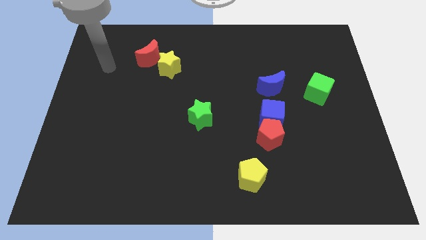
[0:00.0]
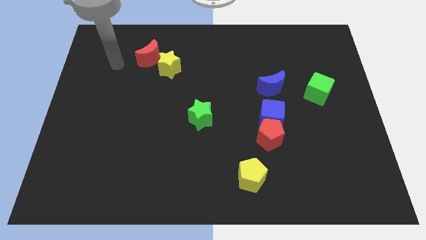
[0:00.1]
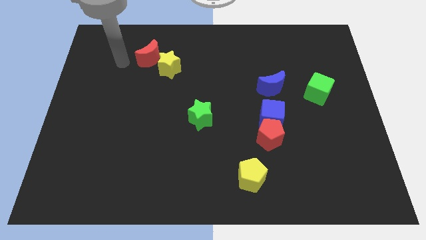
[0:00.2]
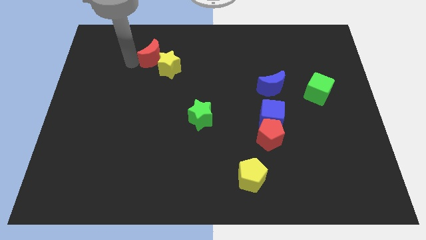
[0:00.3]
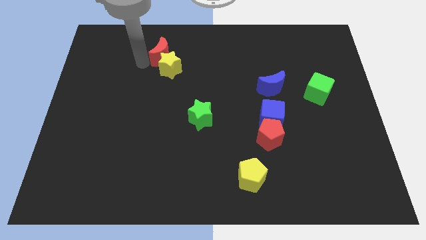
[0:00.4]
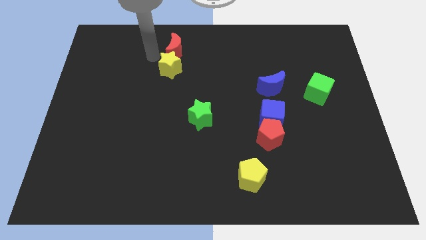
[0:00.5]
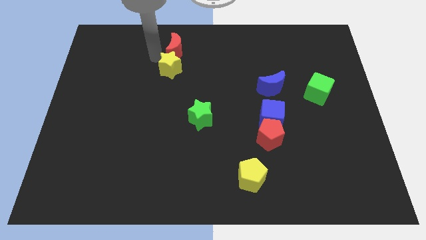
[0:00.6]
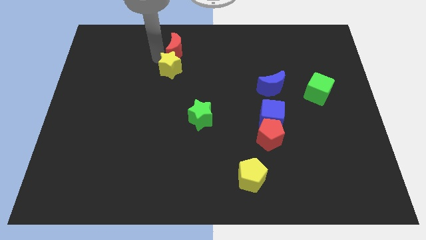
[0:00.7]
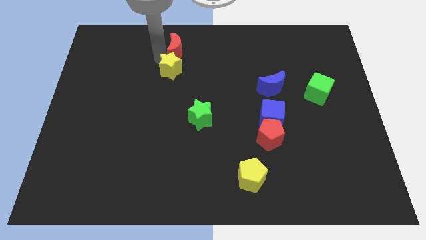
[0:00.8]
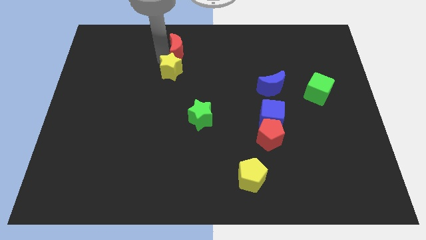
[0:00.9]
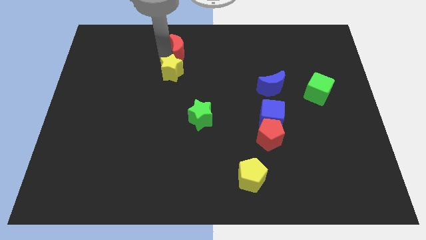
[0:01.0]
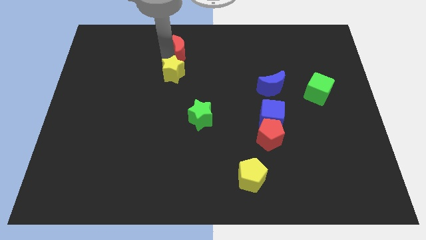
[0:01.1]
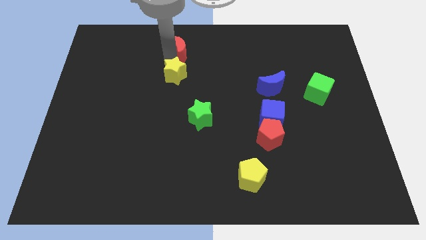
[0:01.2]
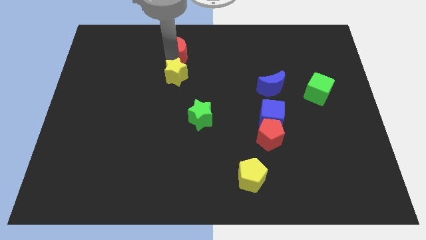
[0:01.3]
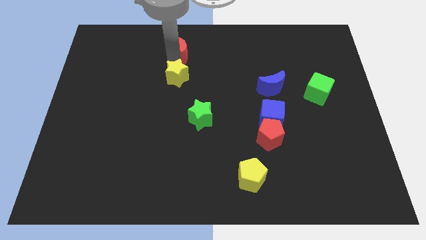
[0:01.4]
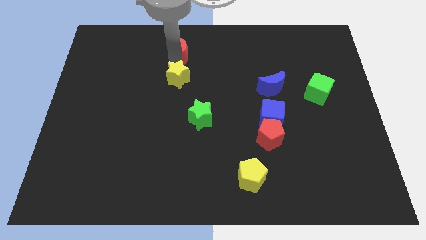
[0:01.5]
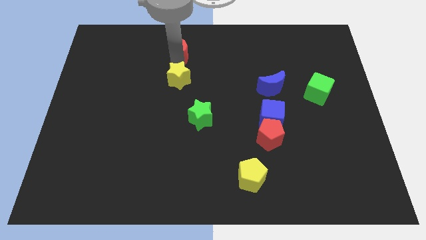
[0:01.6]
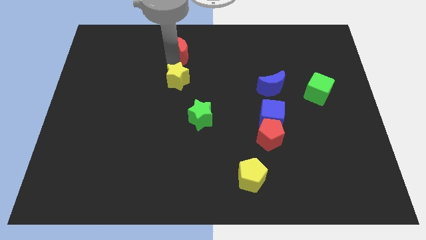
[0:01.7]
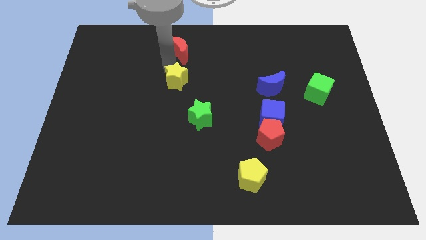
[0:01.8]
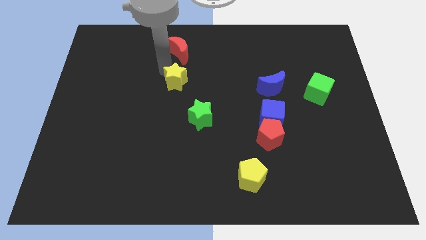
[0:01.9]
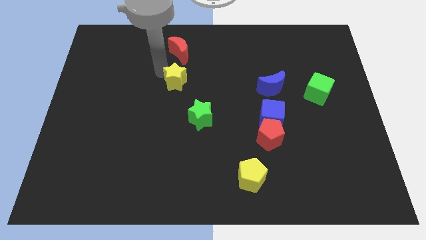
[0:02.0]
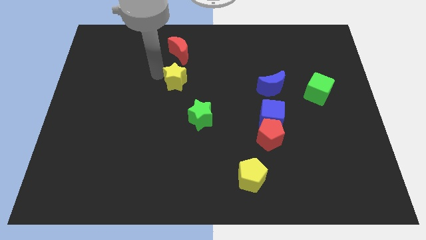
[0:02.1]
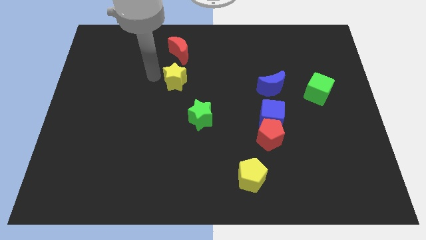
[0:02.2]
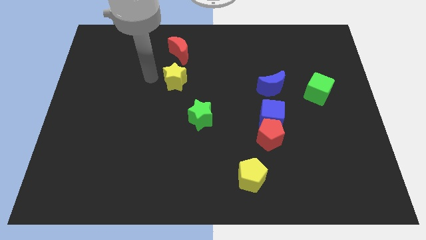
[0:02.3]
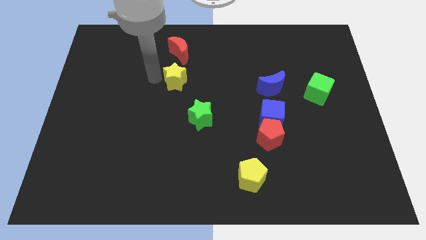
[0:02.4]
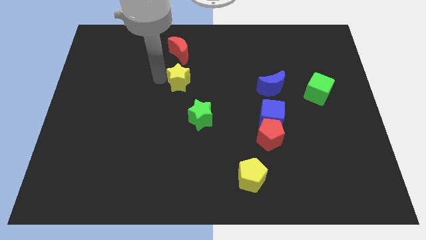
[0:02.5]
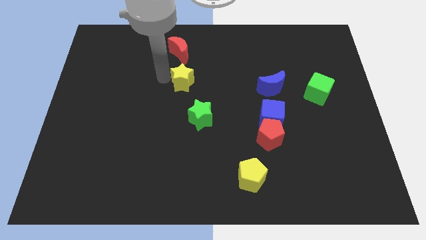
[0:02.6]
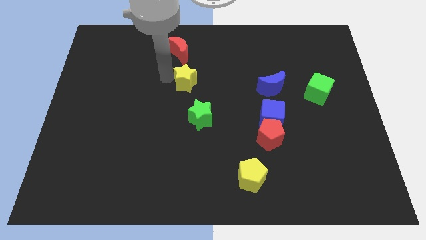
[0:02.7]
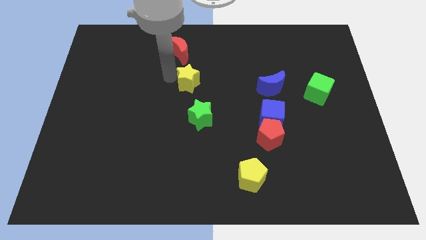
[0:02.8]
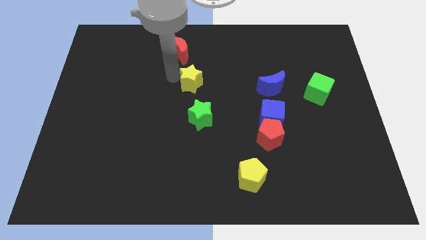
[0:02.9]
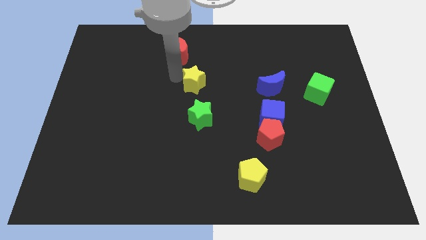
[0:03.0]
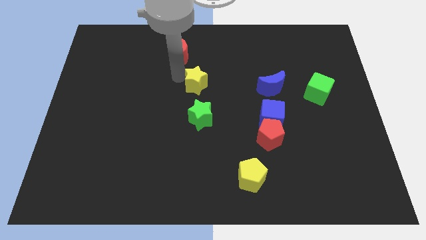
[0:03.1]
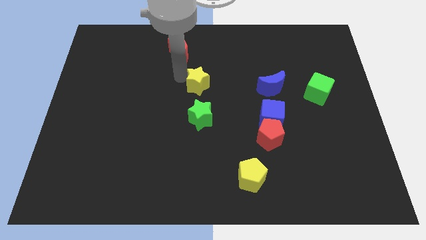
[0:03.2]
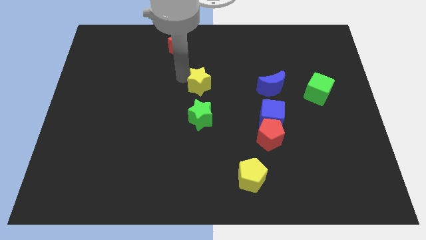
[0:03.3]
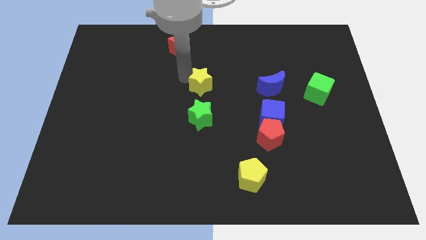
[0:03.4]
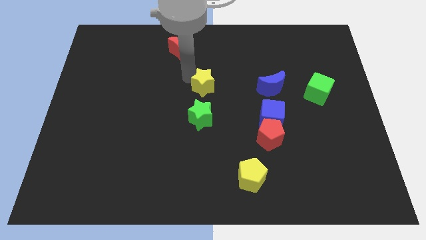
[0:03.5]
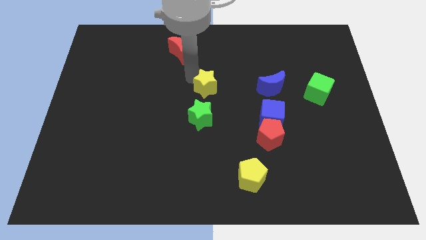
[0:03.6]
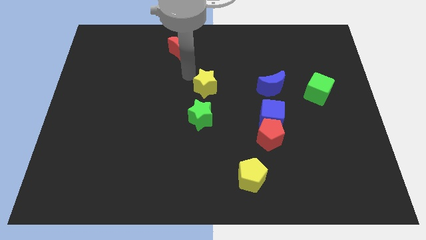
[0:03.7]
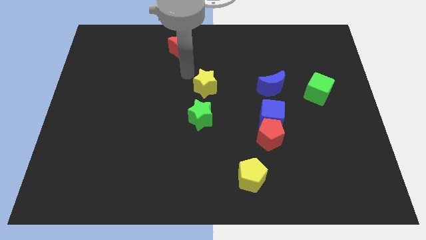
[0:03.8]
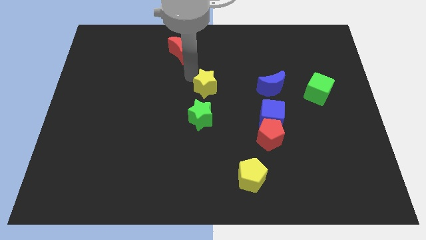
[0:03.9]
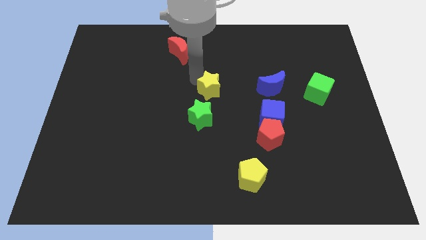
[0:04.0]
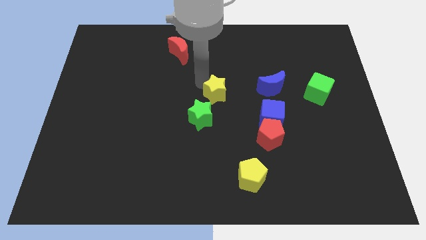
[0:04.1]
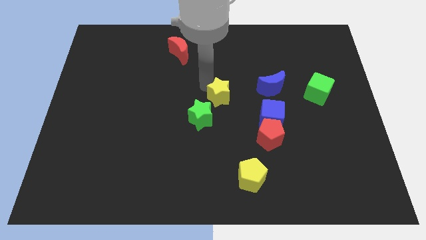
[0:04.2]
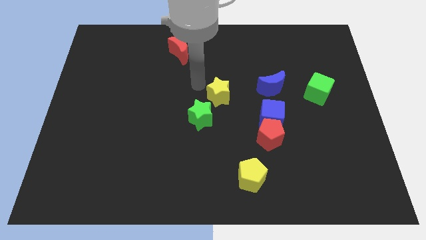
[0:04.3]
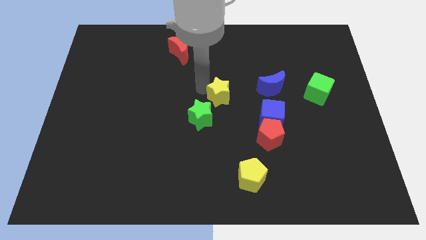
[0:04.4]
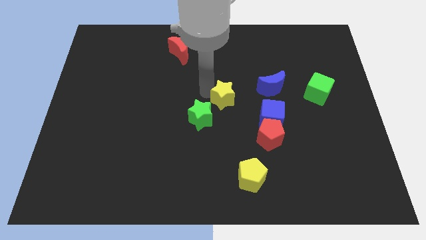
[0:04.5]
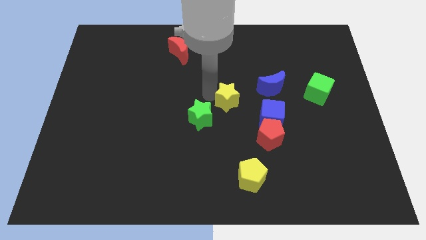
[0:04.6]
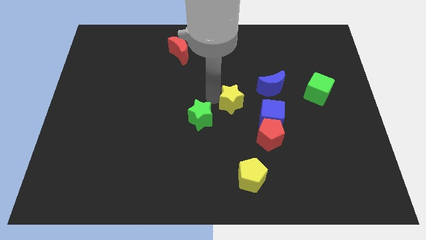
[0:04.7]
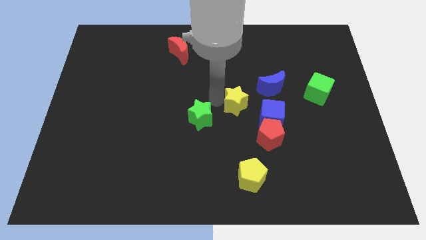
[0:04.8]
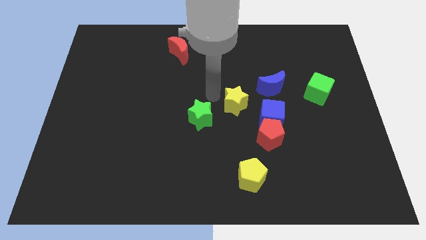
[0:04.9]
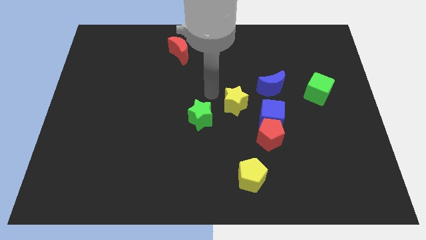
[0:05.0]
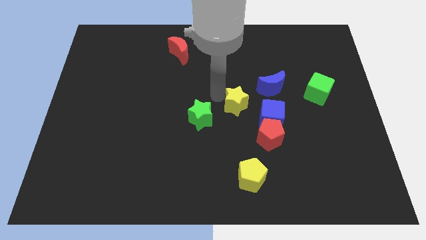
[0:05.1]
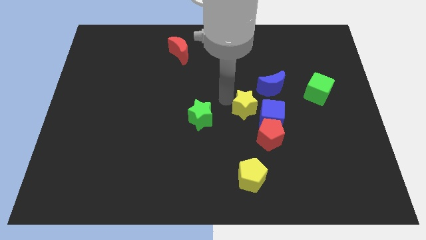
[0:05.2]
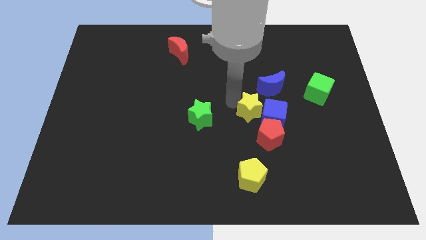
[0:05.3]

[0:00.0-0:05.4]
put the yellow star to the blue cube

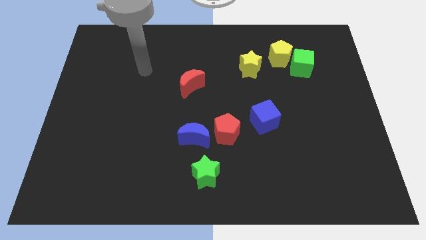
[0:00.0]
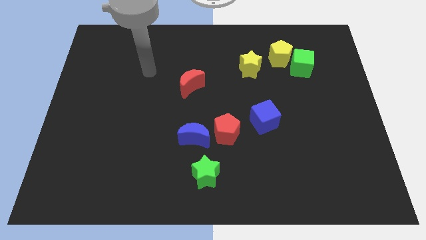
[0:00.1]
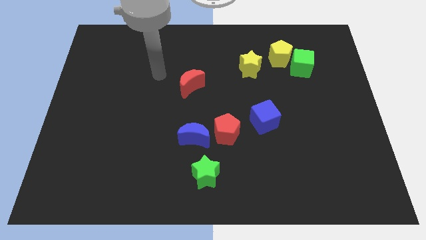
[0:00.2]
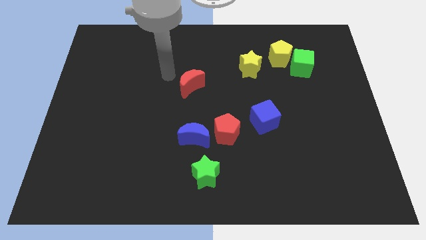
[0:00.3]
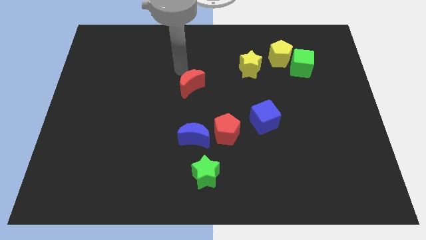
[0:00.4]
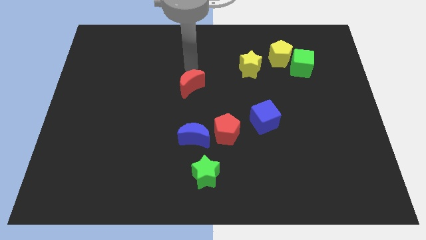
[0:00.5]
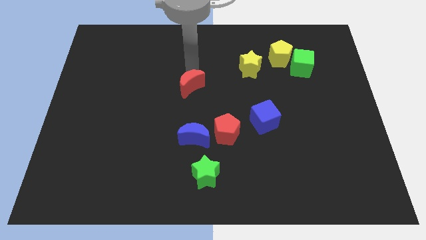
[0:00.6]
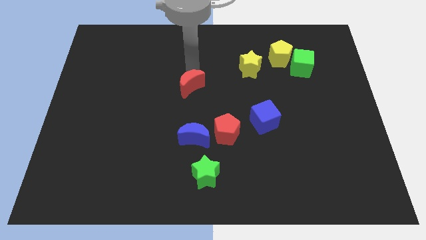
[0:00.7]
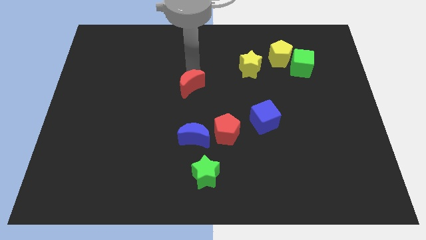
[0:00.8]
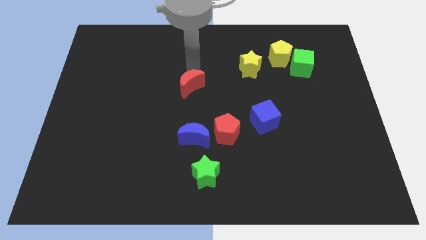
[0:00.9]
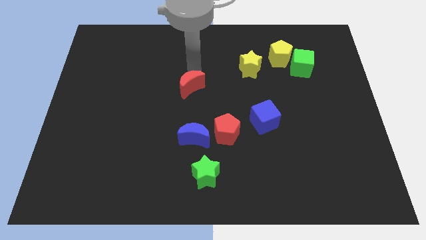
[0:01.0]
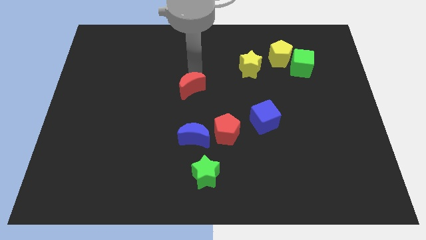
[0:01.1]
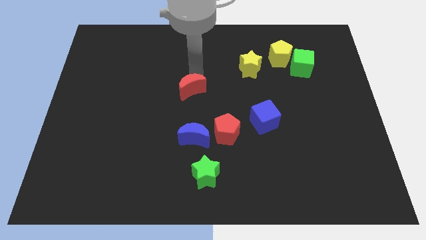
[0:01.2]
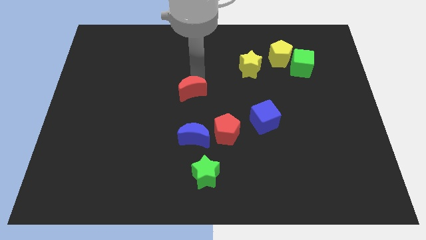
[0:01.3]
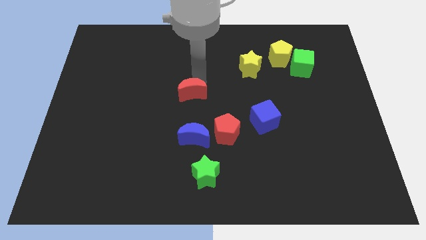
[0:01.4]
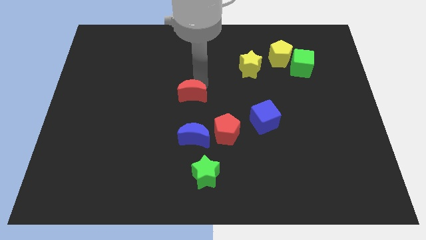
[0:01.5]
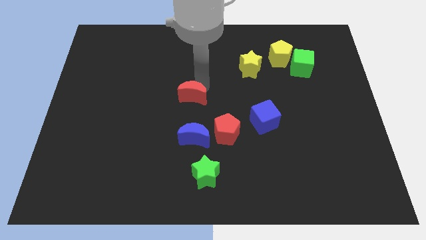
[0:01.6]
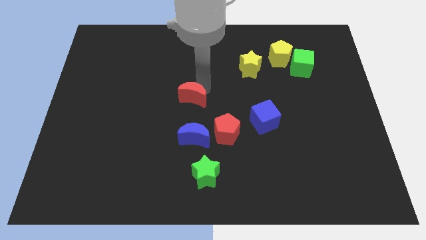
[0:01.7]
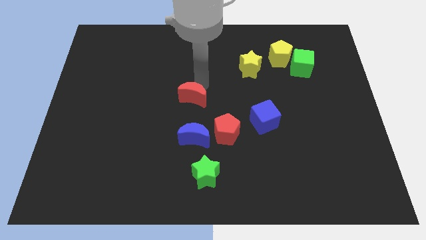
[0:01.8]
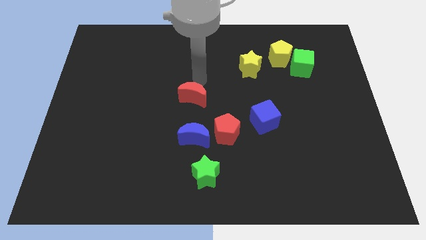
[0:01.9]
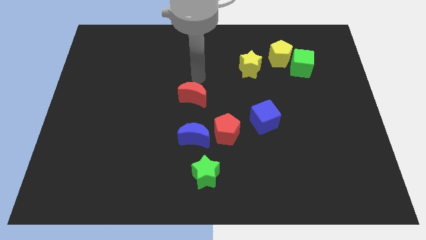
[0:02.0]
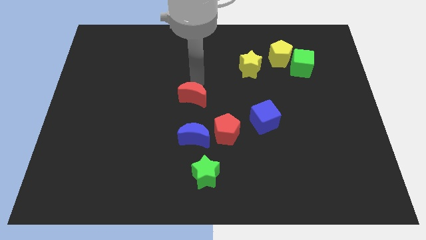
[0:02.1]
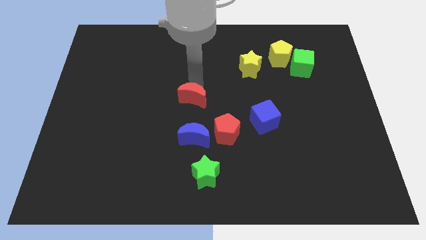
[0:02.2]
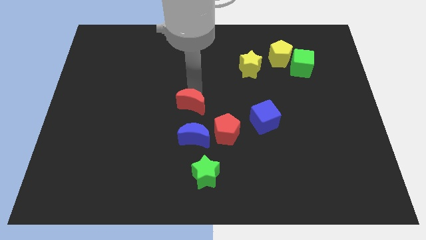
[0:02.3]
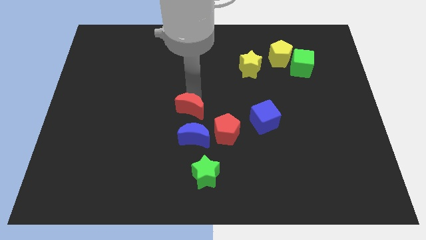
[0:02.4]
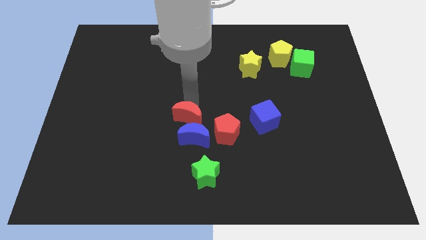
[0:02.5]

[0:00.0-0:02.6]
move the red moon towards the blue moon
